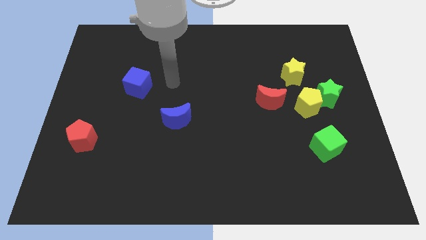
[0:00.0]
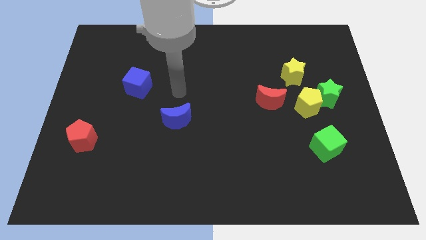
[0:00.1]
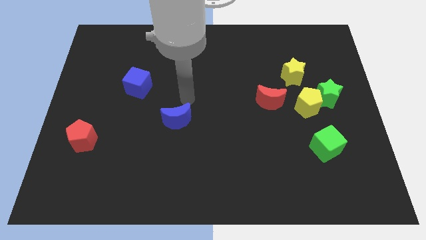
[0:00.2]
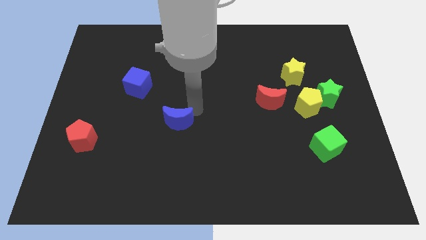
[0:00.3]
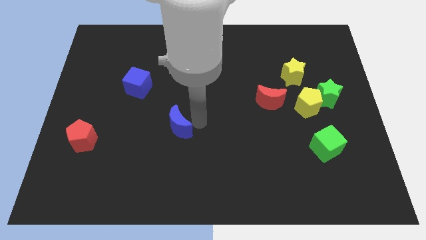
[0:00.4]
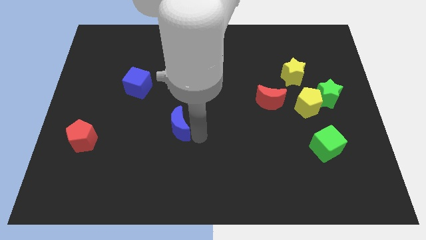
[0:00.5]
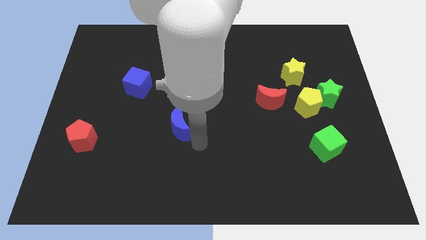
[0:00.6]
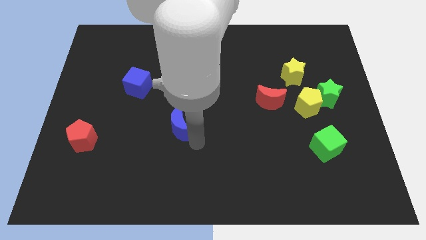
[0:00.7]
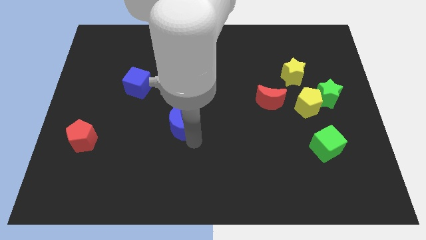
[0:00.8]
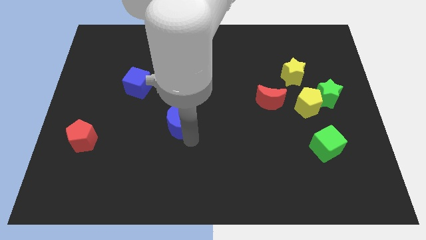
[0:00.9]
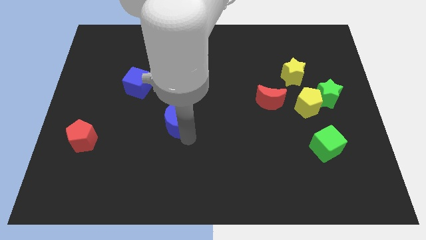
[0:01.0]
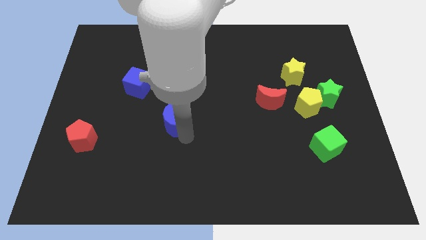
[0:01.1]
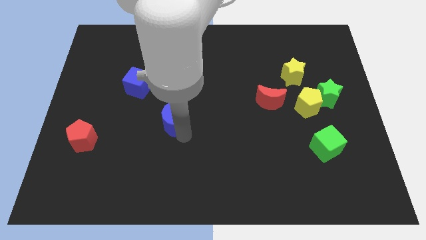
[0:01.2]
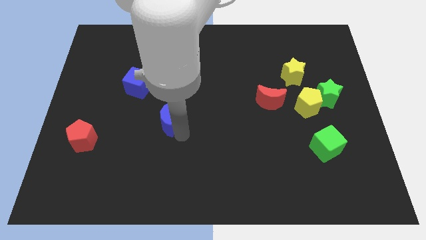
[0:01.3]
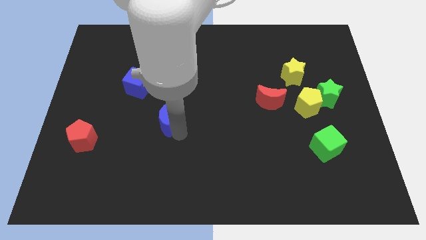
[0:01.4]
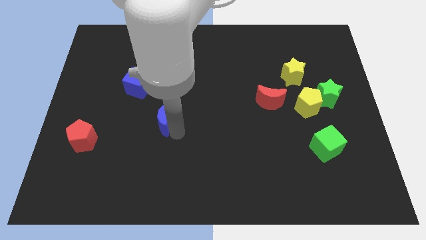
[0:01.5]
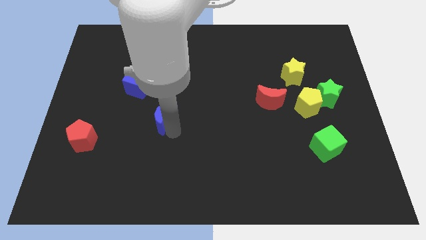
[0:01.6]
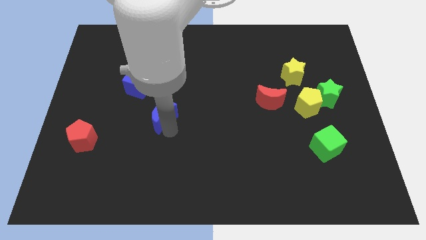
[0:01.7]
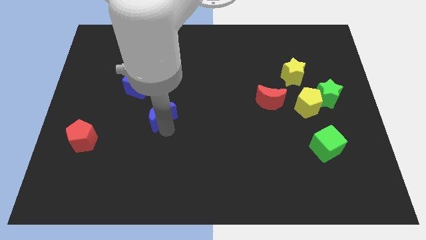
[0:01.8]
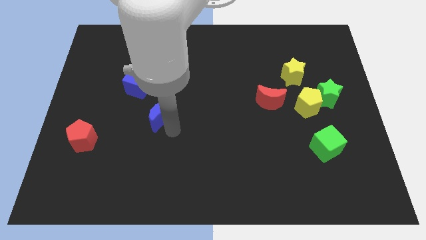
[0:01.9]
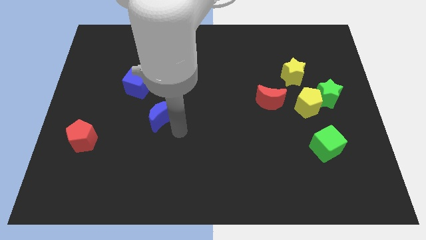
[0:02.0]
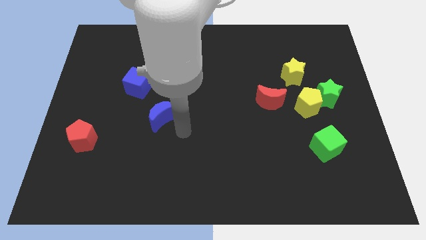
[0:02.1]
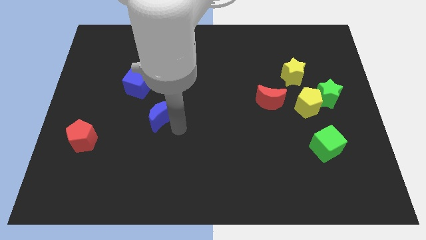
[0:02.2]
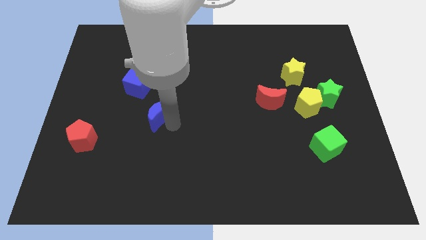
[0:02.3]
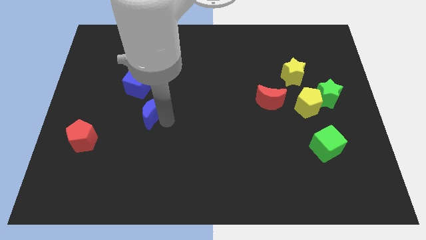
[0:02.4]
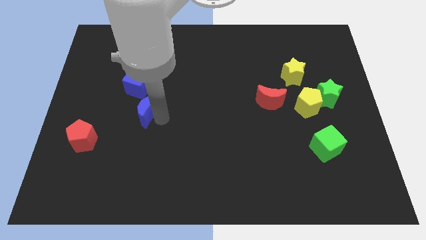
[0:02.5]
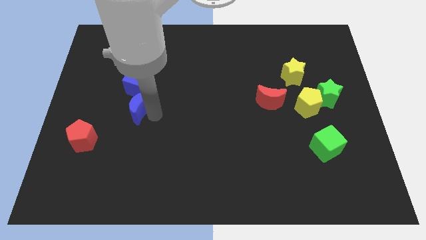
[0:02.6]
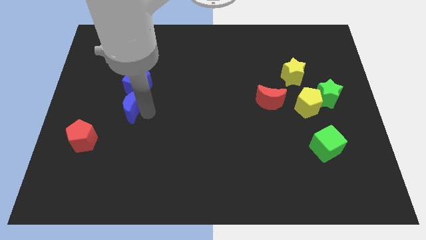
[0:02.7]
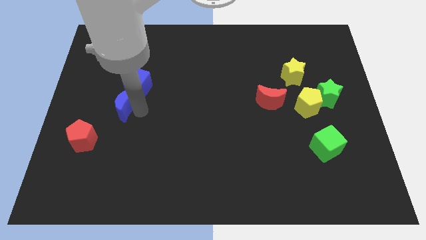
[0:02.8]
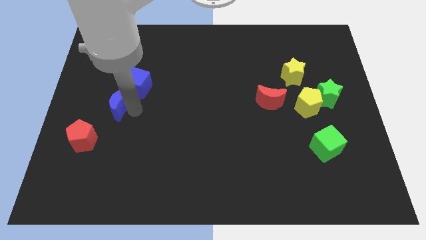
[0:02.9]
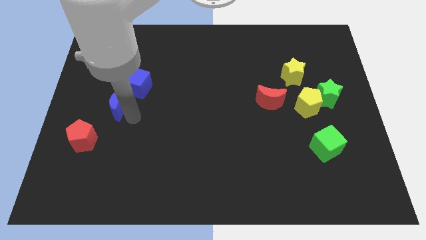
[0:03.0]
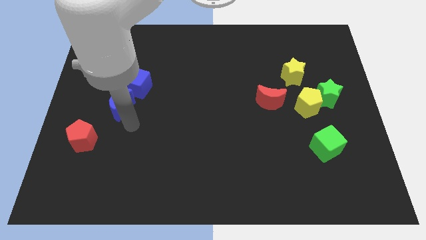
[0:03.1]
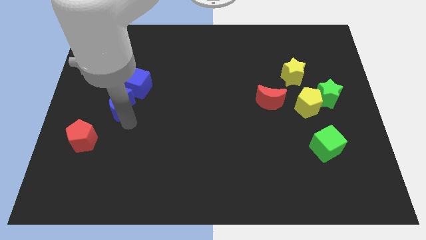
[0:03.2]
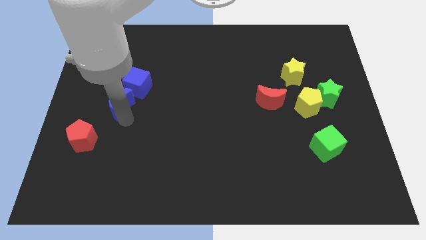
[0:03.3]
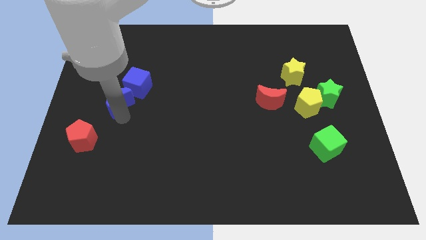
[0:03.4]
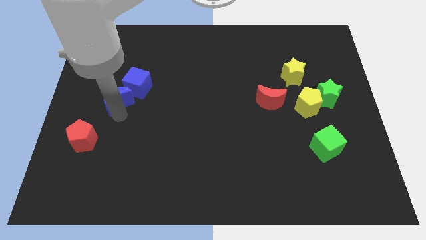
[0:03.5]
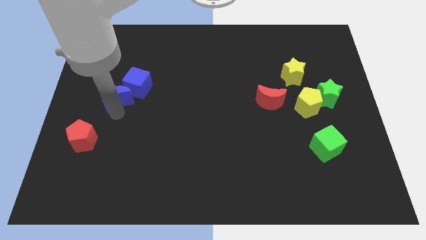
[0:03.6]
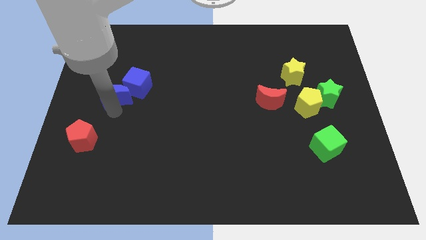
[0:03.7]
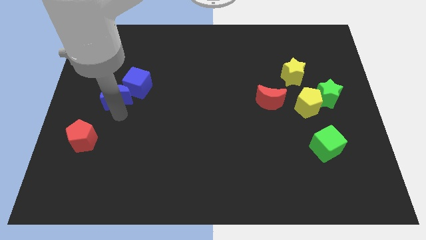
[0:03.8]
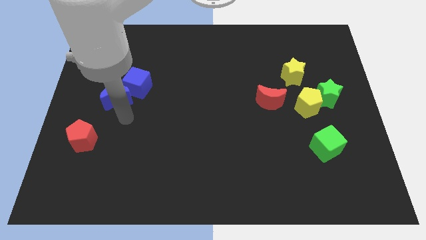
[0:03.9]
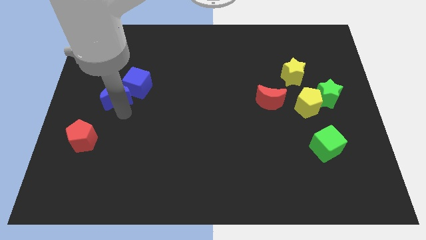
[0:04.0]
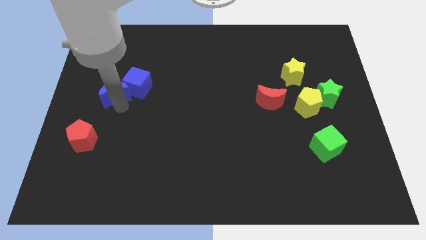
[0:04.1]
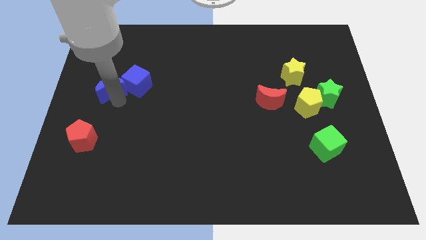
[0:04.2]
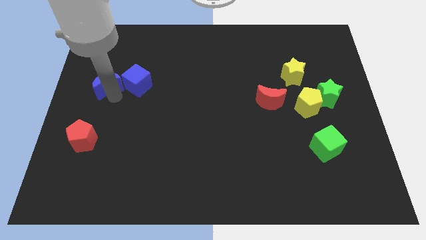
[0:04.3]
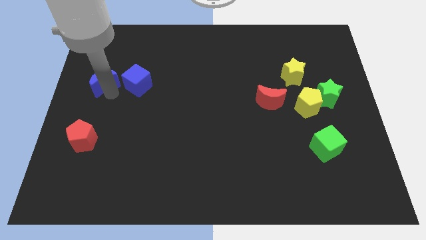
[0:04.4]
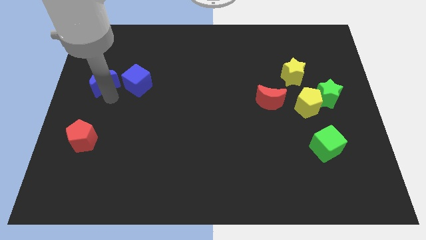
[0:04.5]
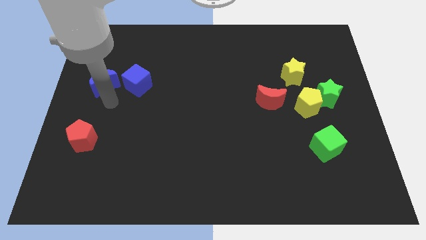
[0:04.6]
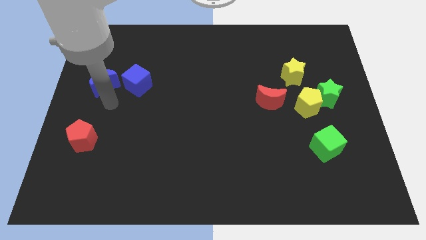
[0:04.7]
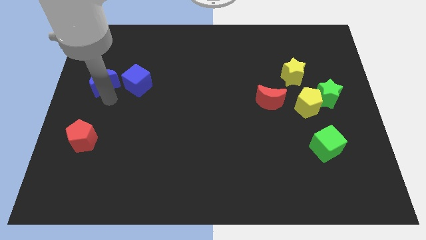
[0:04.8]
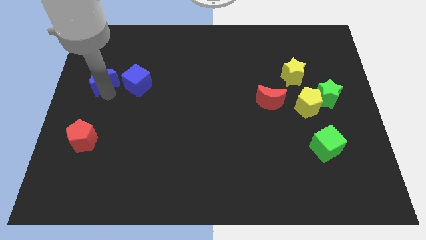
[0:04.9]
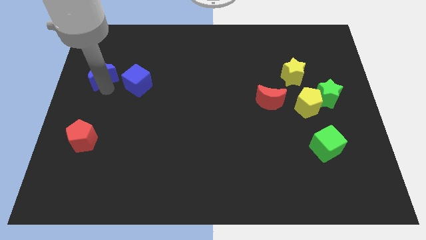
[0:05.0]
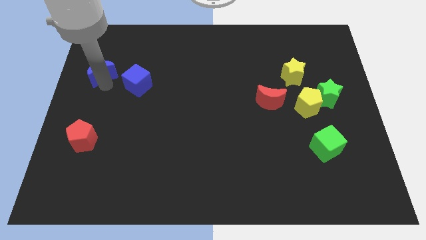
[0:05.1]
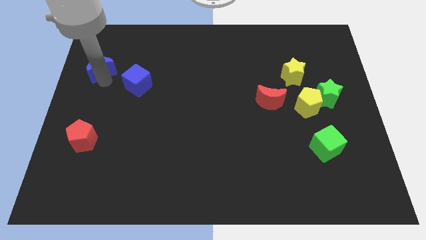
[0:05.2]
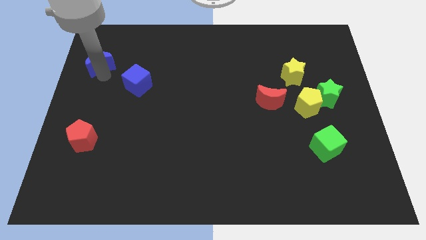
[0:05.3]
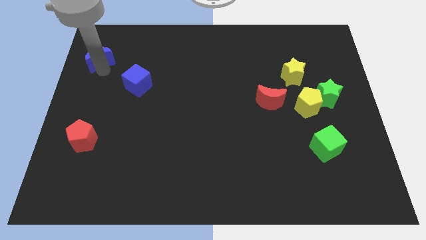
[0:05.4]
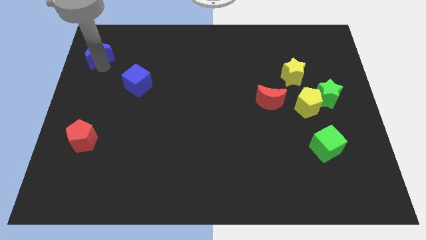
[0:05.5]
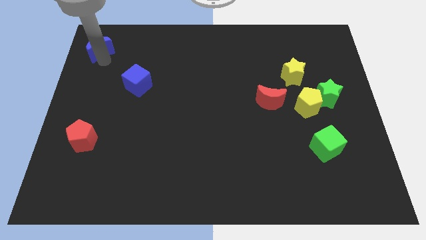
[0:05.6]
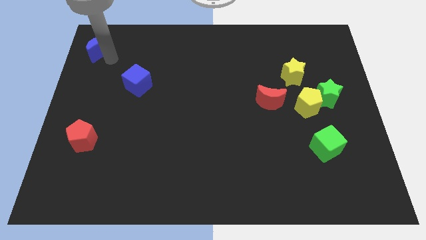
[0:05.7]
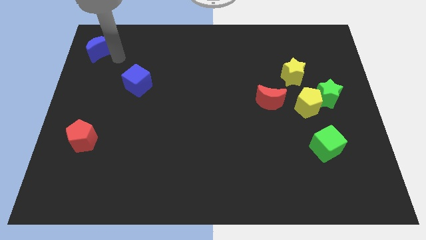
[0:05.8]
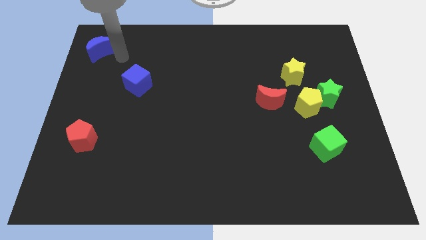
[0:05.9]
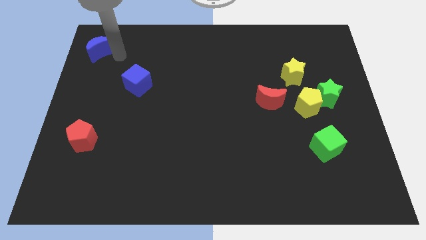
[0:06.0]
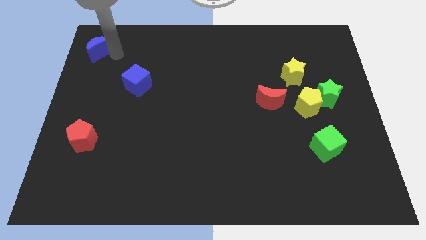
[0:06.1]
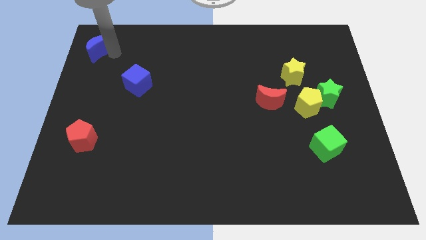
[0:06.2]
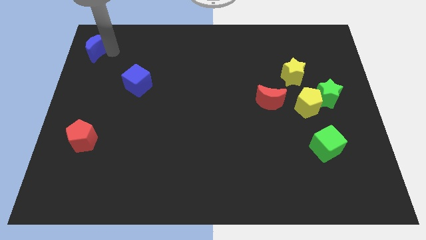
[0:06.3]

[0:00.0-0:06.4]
slide the blue moon to the top left corner
